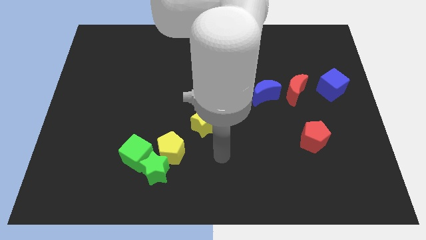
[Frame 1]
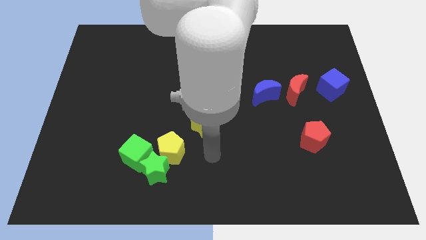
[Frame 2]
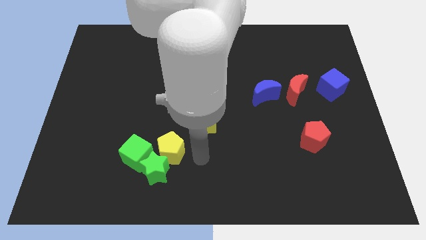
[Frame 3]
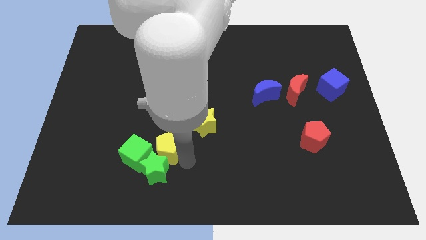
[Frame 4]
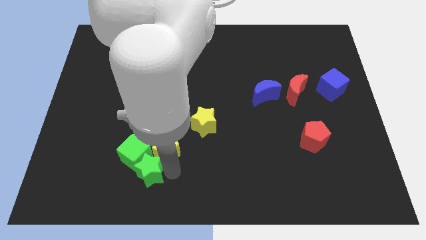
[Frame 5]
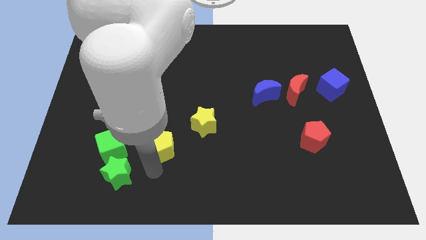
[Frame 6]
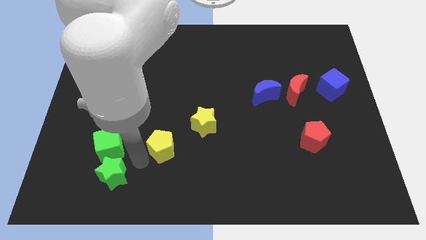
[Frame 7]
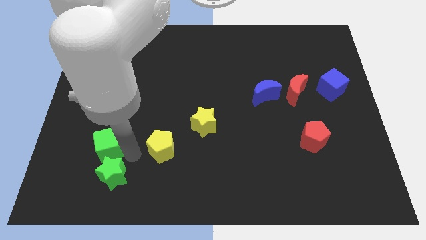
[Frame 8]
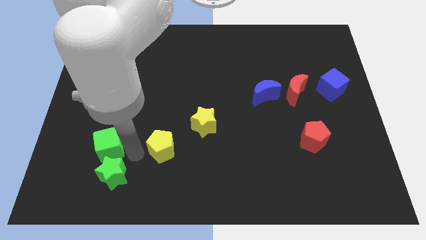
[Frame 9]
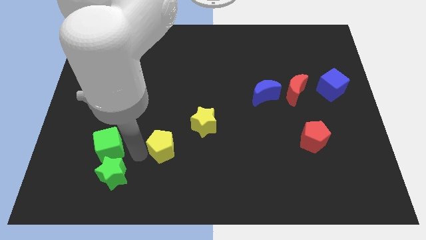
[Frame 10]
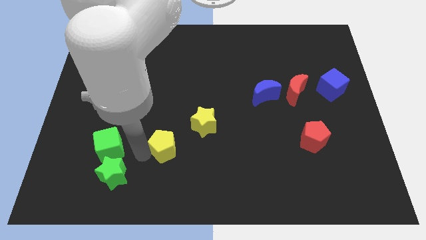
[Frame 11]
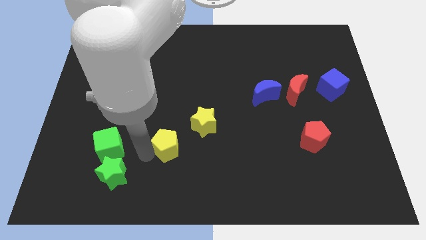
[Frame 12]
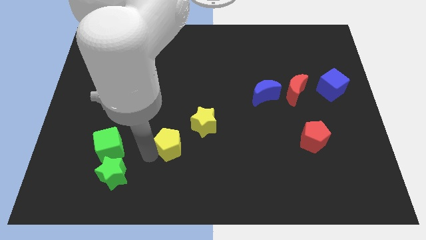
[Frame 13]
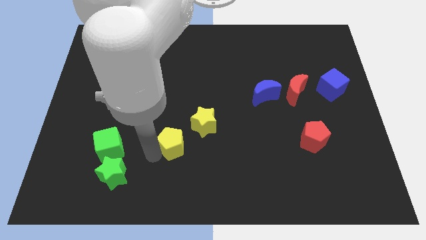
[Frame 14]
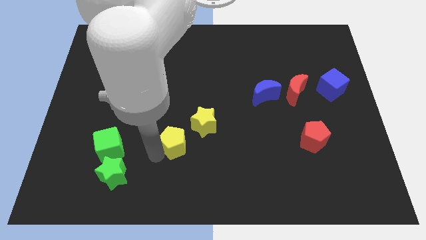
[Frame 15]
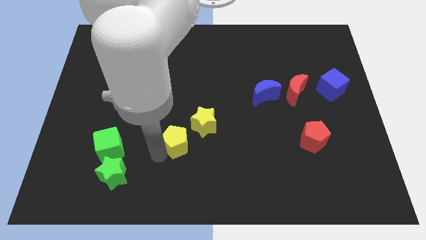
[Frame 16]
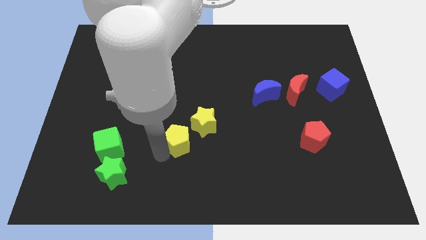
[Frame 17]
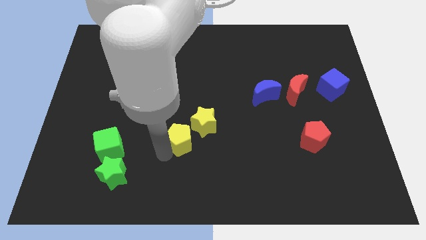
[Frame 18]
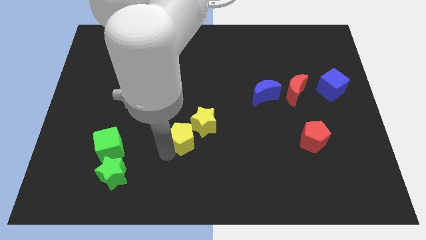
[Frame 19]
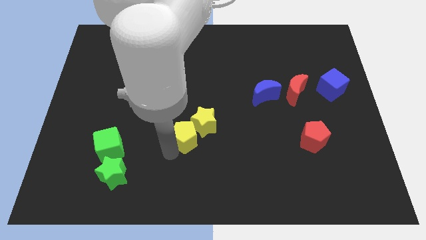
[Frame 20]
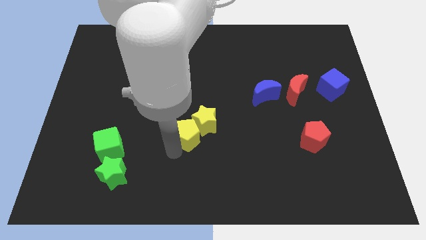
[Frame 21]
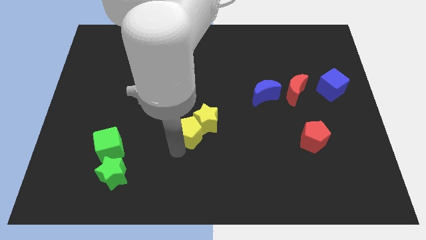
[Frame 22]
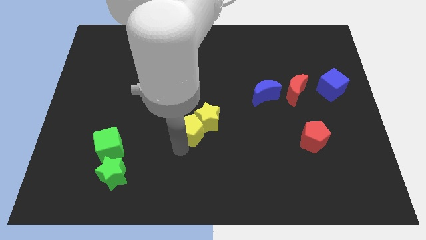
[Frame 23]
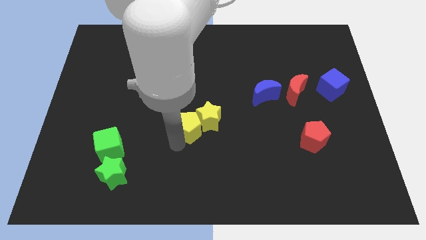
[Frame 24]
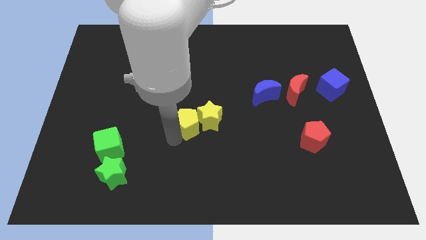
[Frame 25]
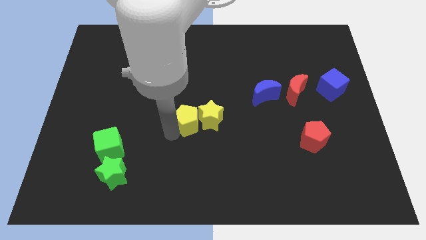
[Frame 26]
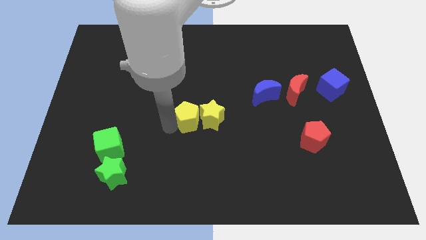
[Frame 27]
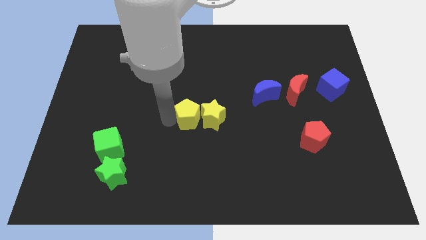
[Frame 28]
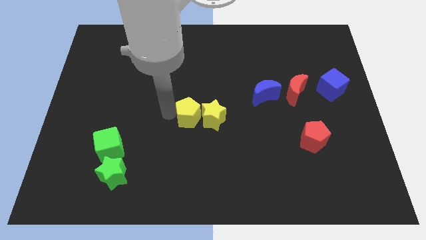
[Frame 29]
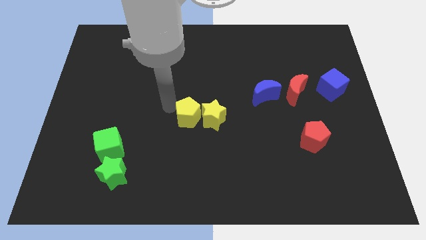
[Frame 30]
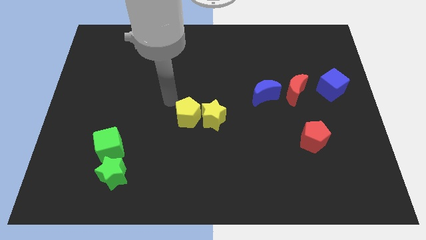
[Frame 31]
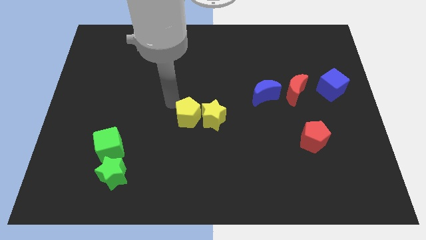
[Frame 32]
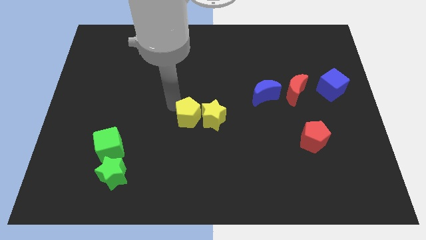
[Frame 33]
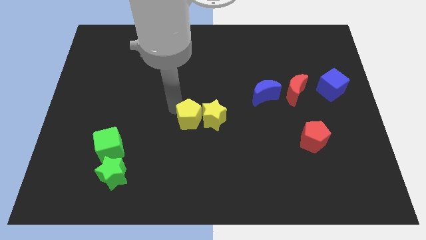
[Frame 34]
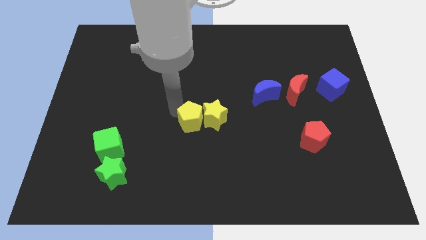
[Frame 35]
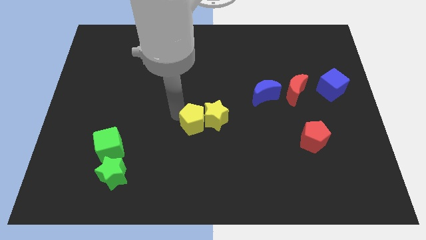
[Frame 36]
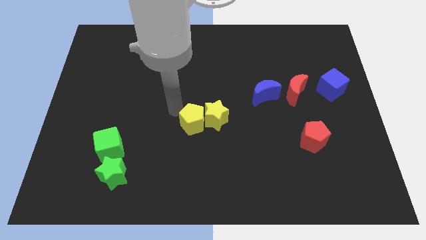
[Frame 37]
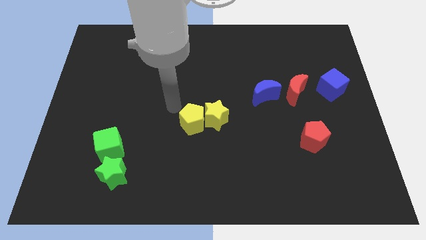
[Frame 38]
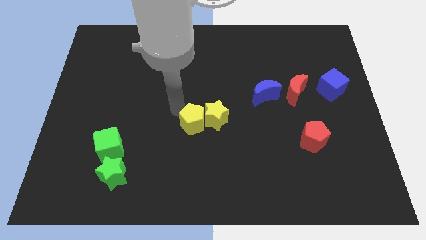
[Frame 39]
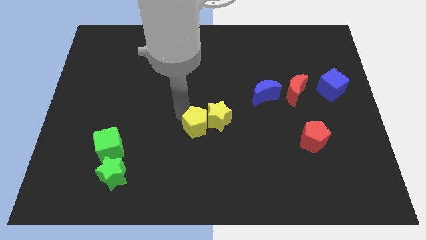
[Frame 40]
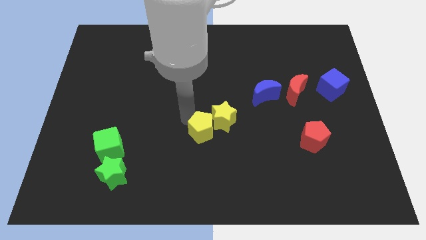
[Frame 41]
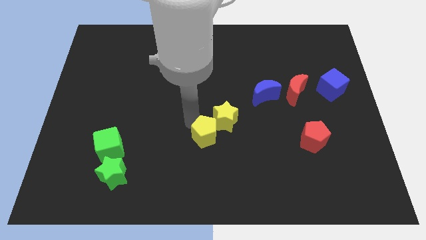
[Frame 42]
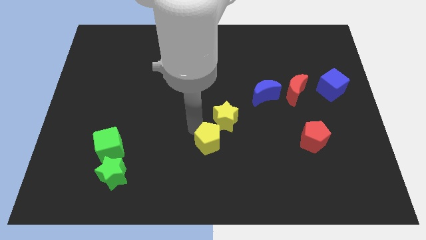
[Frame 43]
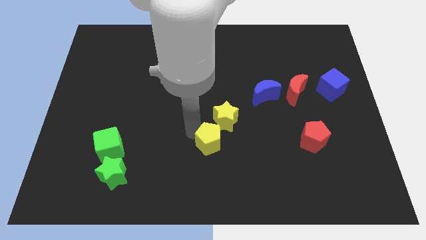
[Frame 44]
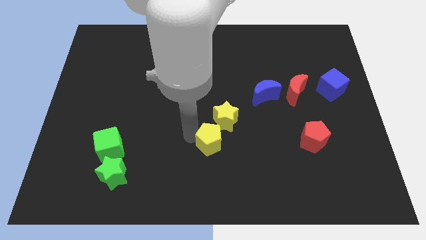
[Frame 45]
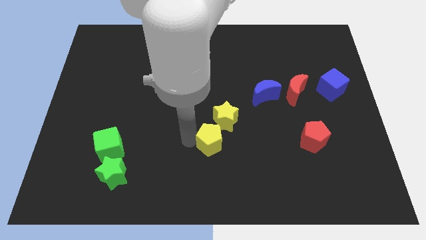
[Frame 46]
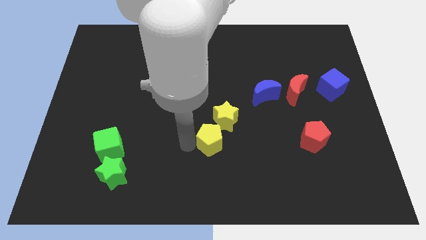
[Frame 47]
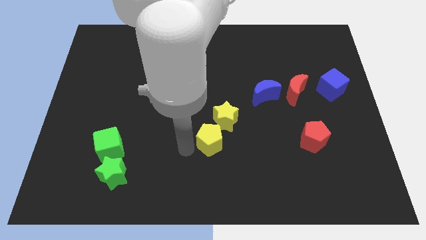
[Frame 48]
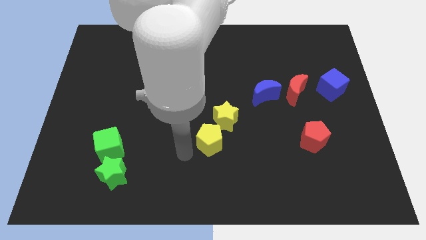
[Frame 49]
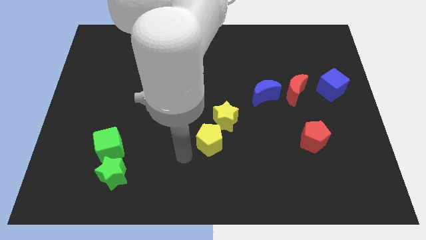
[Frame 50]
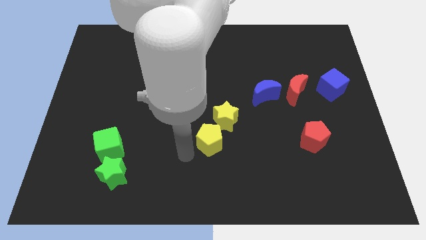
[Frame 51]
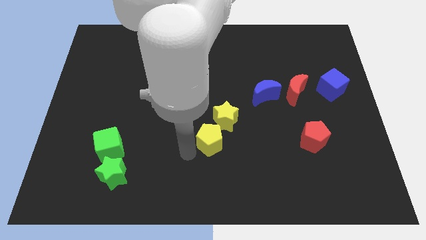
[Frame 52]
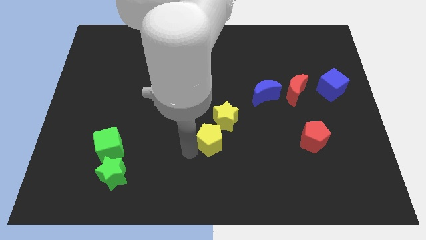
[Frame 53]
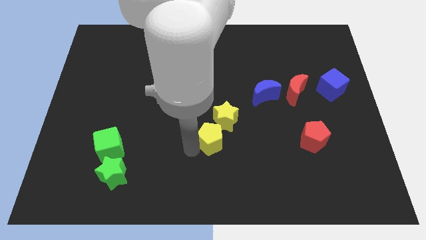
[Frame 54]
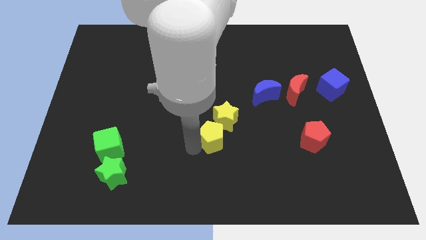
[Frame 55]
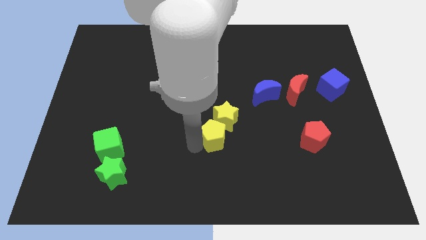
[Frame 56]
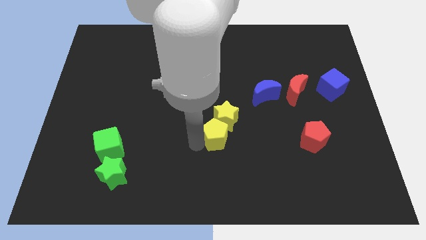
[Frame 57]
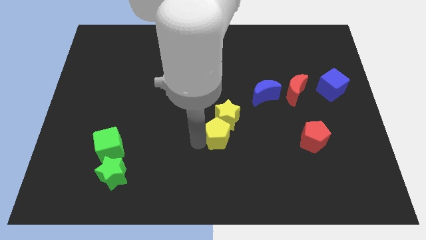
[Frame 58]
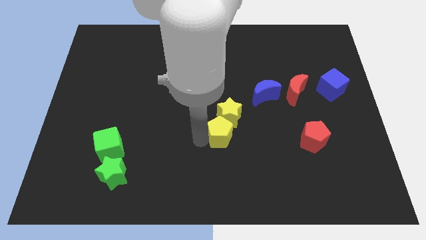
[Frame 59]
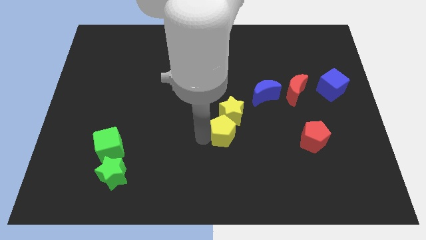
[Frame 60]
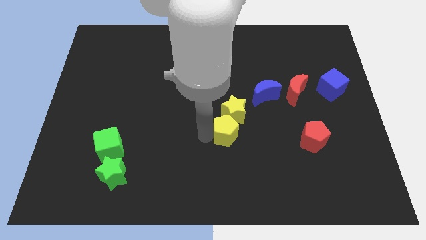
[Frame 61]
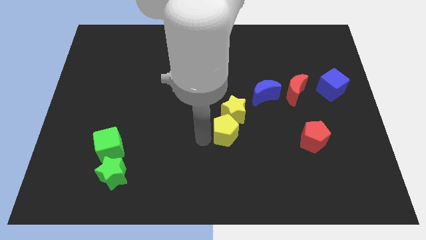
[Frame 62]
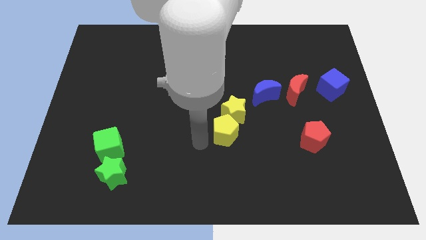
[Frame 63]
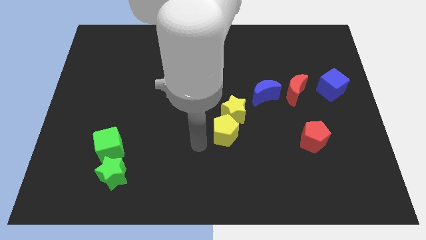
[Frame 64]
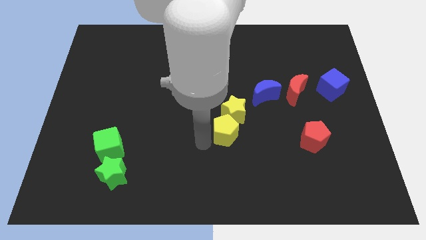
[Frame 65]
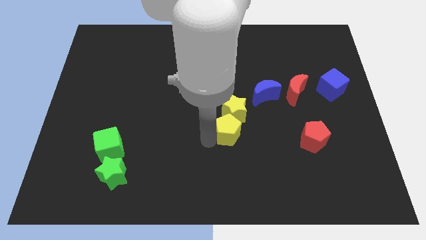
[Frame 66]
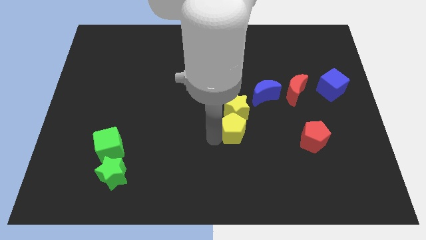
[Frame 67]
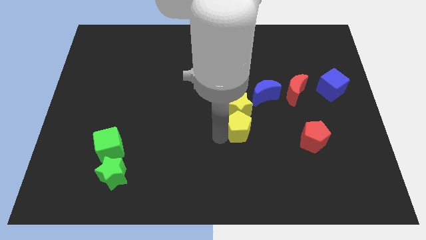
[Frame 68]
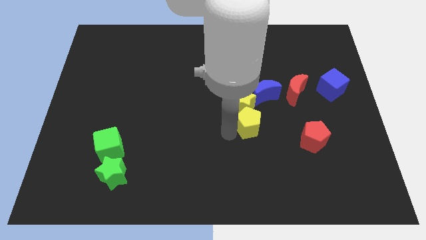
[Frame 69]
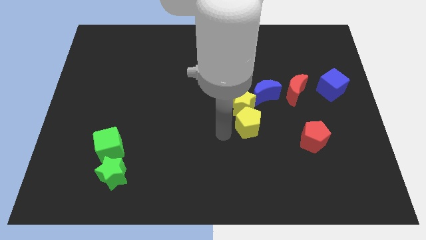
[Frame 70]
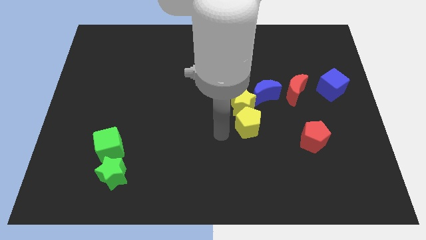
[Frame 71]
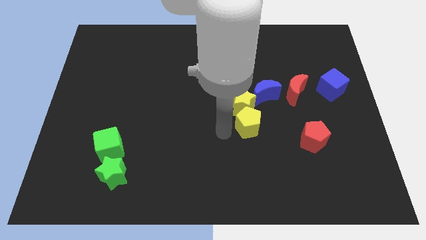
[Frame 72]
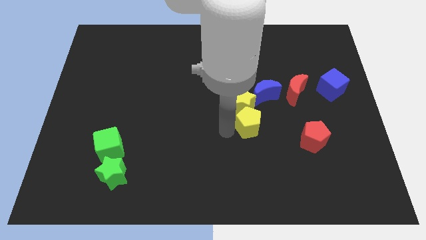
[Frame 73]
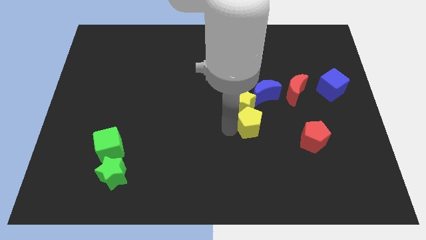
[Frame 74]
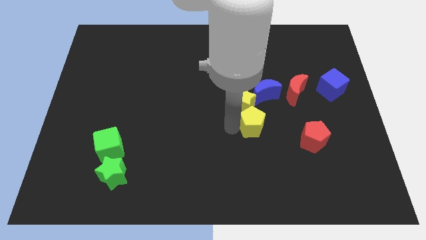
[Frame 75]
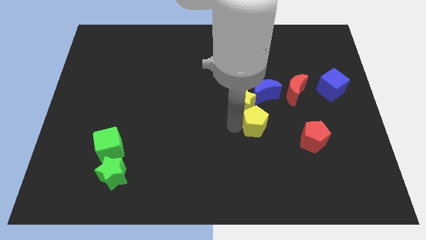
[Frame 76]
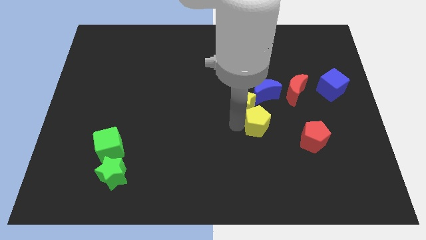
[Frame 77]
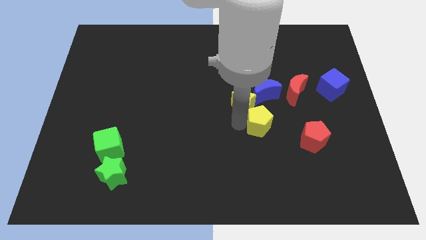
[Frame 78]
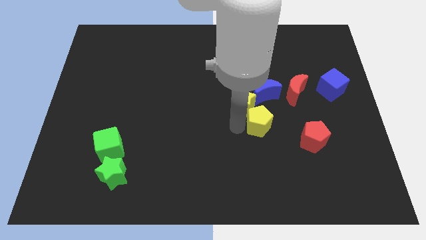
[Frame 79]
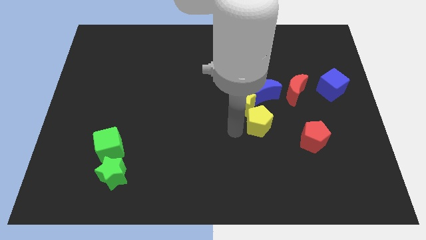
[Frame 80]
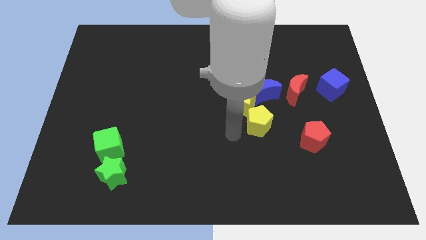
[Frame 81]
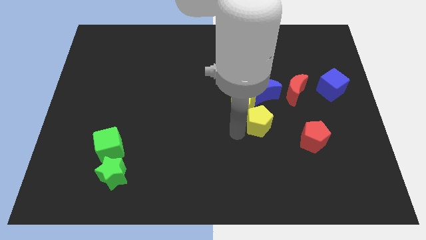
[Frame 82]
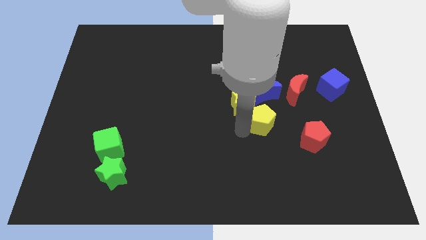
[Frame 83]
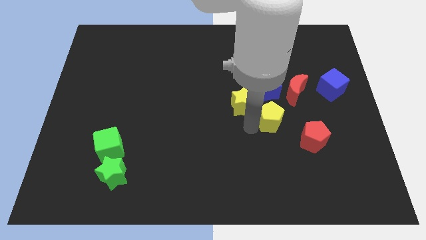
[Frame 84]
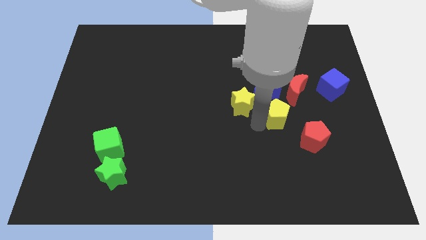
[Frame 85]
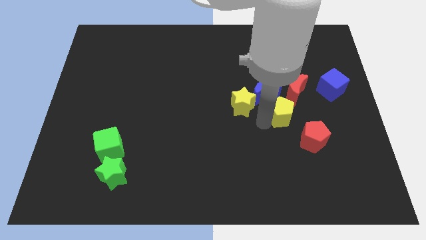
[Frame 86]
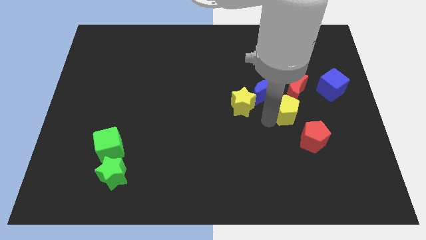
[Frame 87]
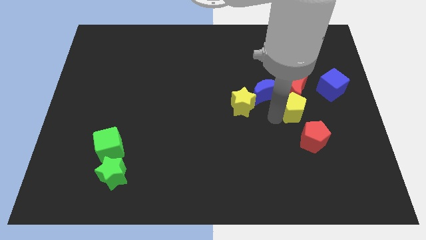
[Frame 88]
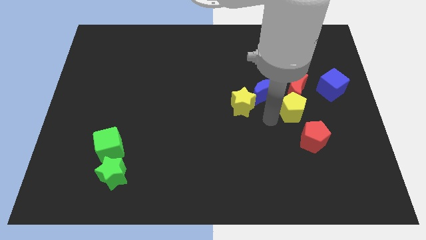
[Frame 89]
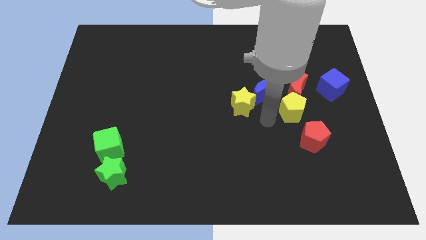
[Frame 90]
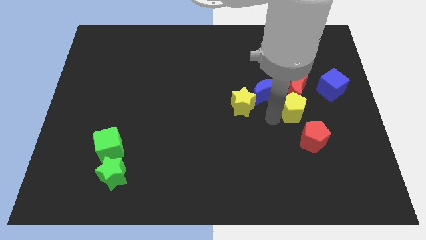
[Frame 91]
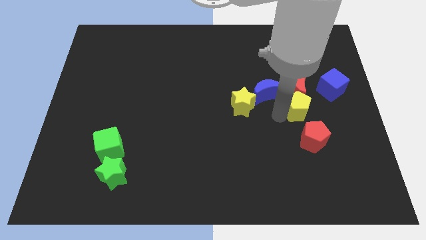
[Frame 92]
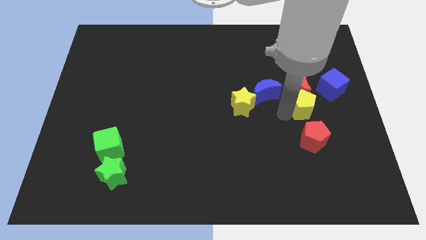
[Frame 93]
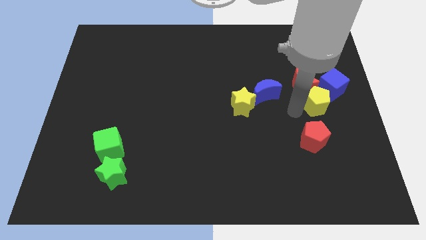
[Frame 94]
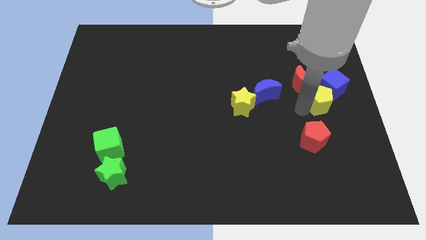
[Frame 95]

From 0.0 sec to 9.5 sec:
put the yellow pentagon to the blue cube
